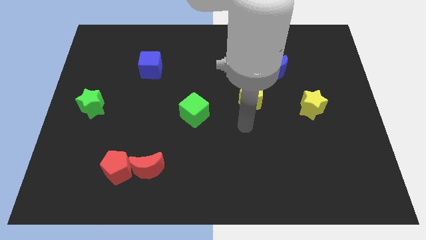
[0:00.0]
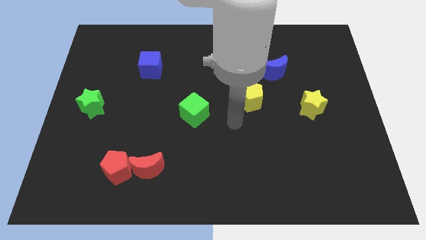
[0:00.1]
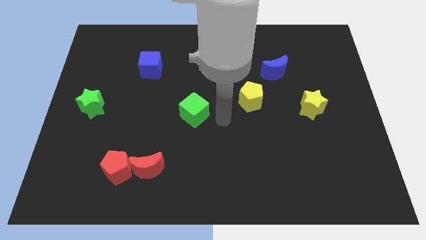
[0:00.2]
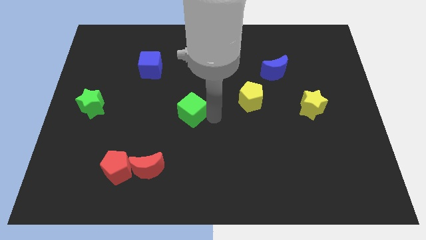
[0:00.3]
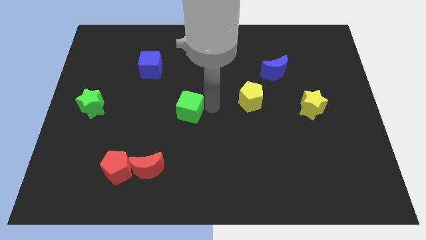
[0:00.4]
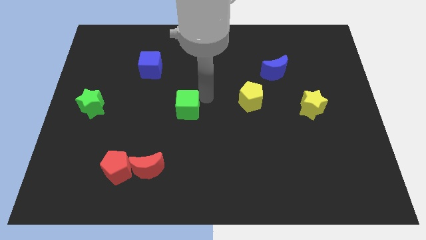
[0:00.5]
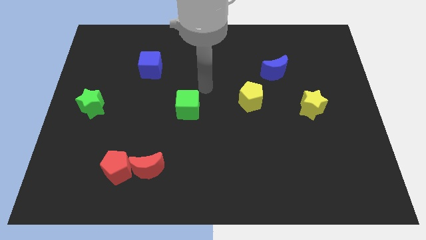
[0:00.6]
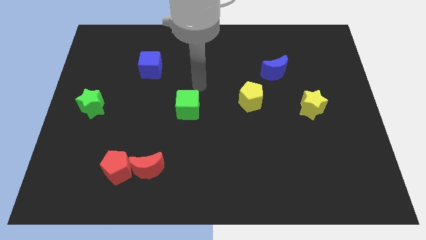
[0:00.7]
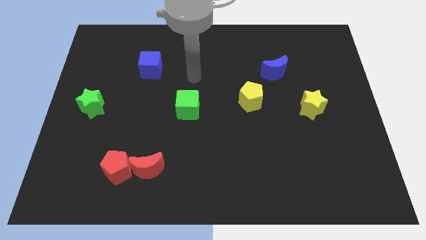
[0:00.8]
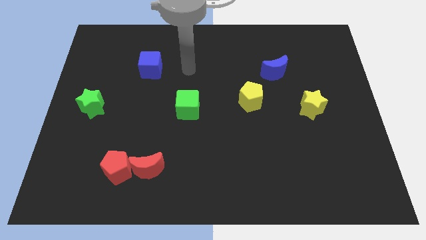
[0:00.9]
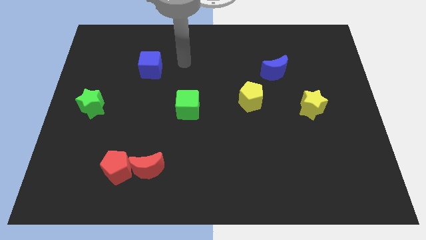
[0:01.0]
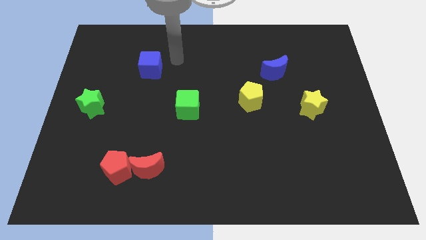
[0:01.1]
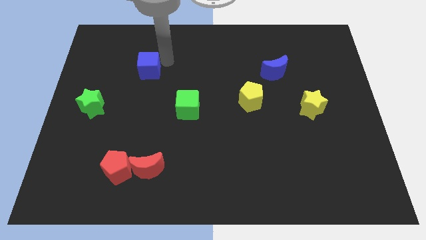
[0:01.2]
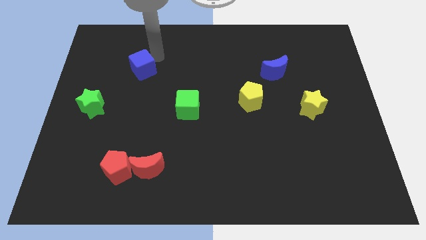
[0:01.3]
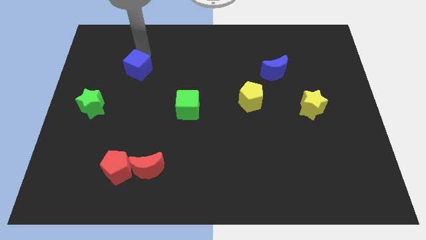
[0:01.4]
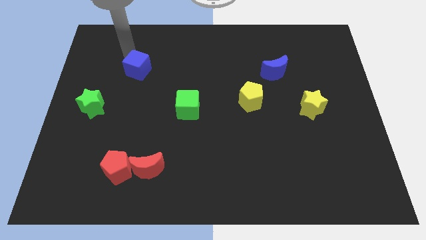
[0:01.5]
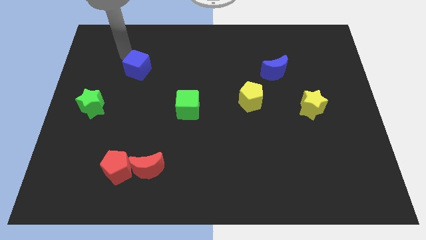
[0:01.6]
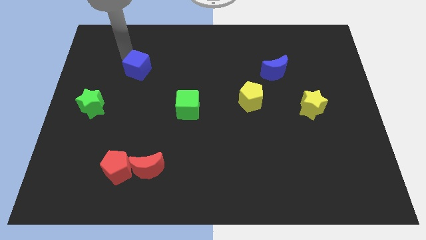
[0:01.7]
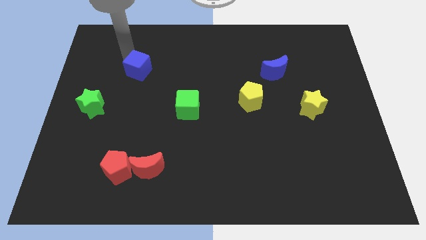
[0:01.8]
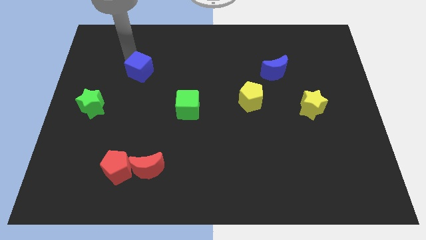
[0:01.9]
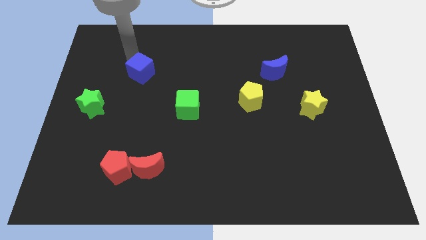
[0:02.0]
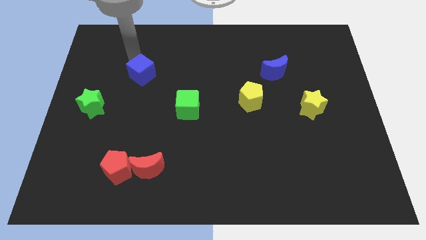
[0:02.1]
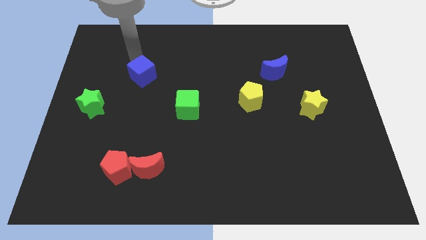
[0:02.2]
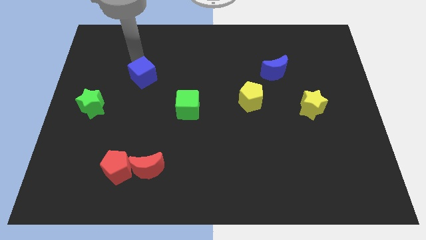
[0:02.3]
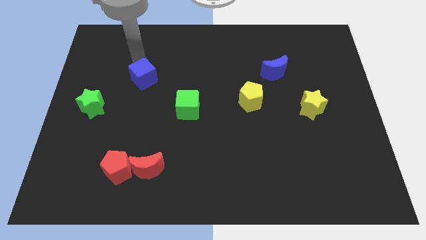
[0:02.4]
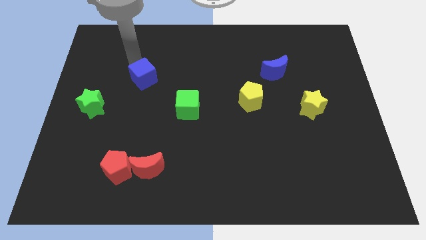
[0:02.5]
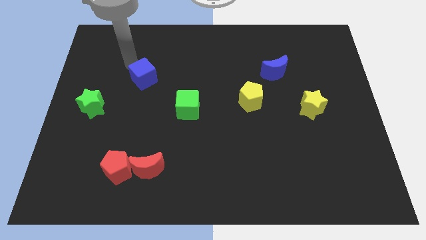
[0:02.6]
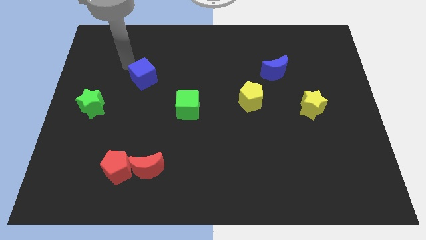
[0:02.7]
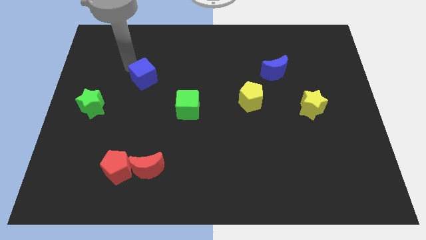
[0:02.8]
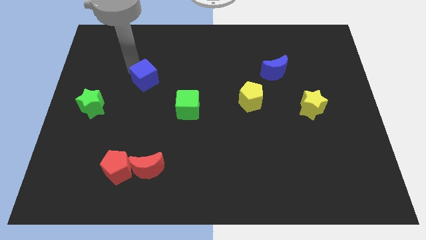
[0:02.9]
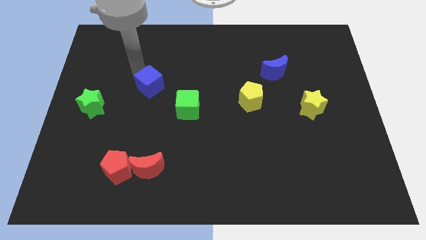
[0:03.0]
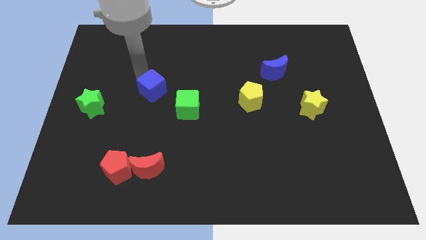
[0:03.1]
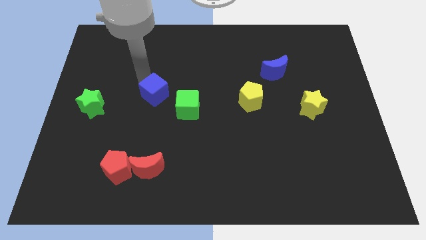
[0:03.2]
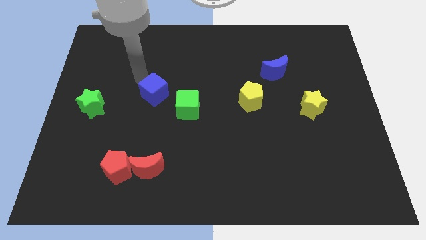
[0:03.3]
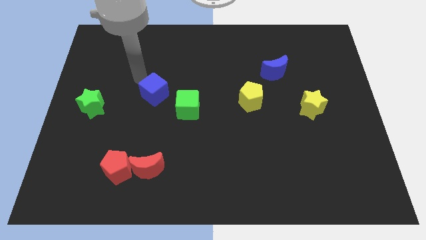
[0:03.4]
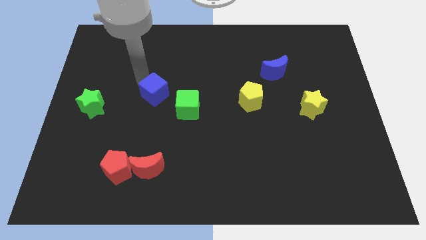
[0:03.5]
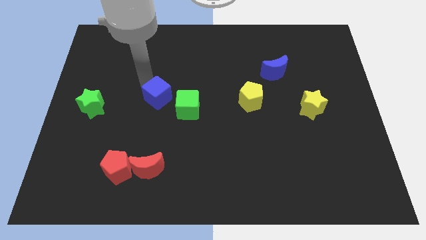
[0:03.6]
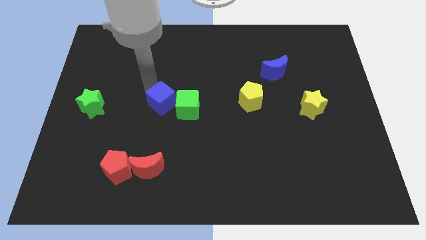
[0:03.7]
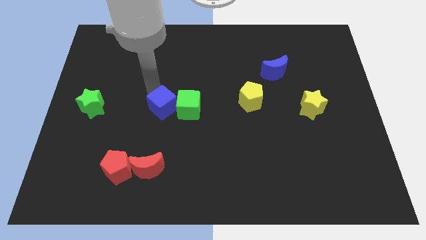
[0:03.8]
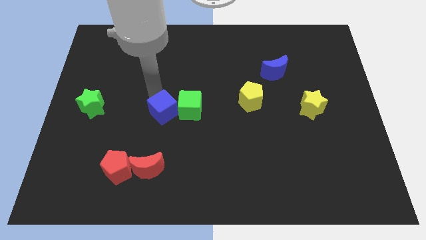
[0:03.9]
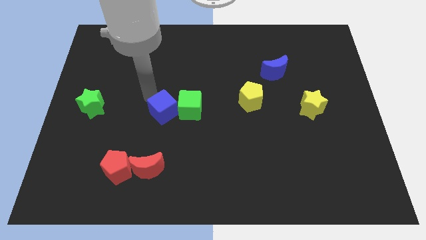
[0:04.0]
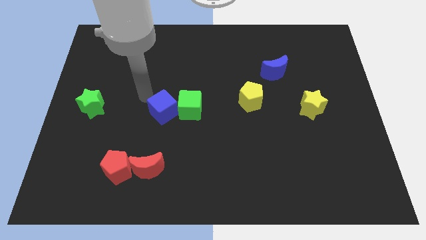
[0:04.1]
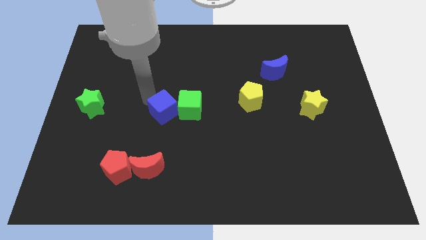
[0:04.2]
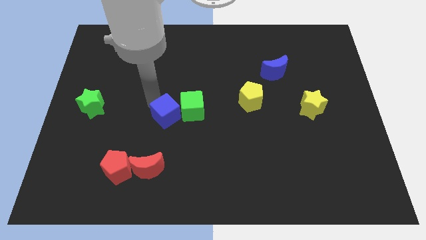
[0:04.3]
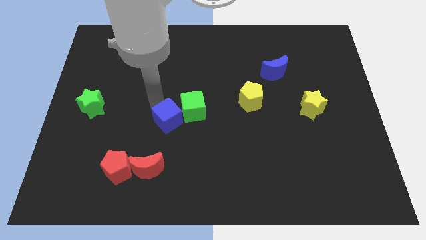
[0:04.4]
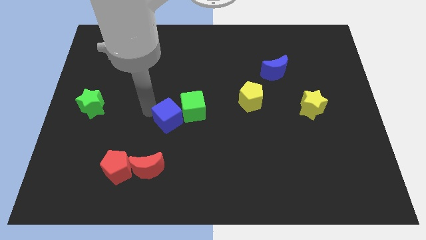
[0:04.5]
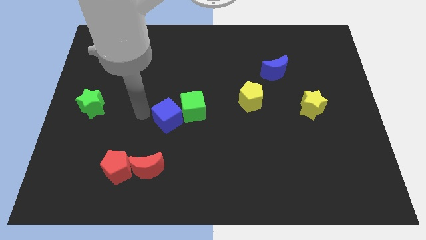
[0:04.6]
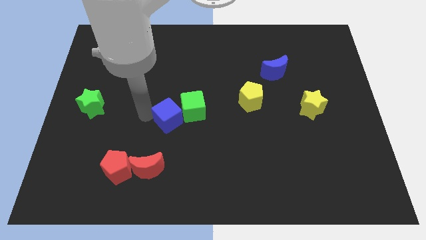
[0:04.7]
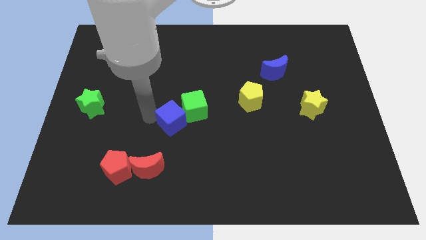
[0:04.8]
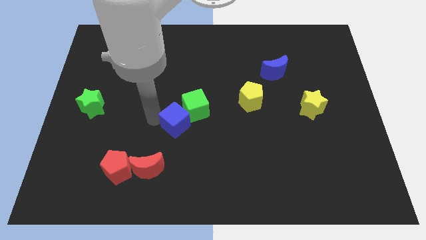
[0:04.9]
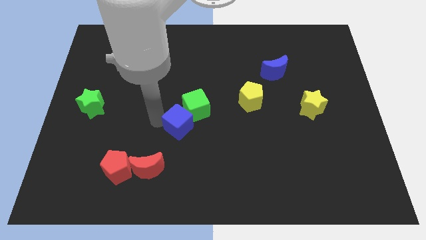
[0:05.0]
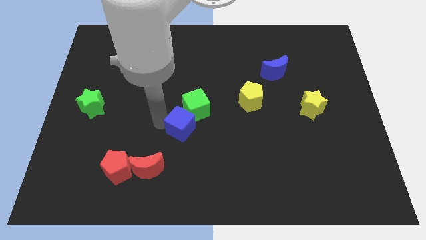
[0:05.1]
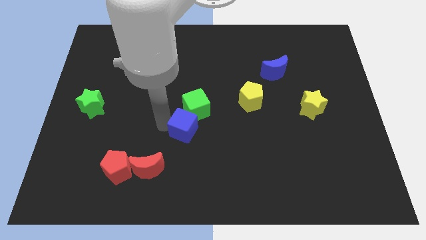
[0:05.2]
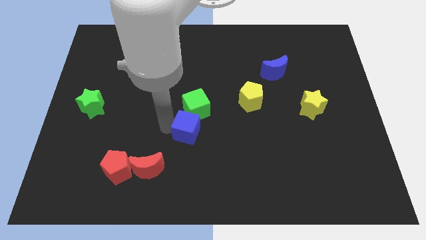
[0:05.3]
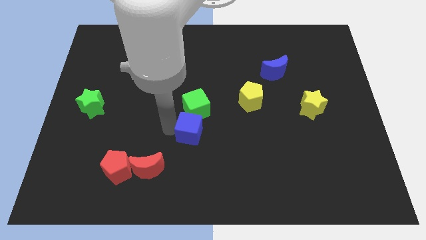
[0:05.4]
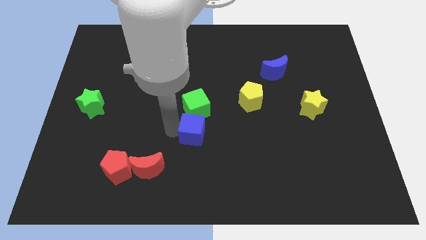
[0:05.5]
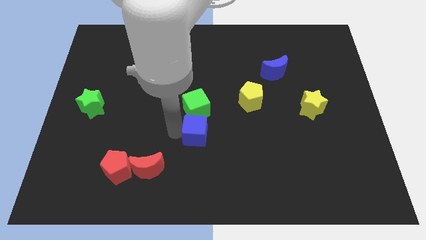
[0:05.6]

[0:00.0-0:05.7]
slide the blue cube to the bottom right side of the green cube

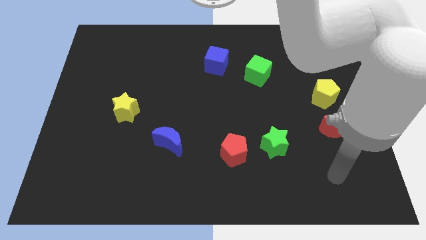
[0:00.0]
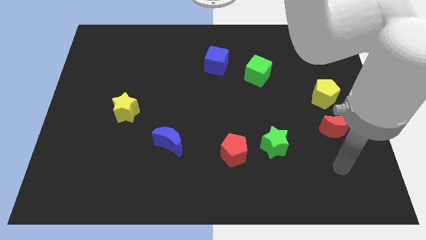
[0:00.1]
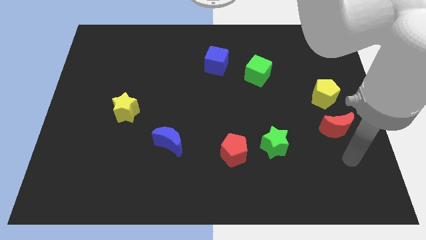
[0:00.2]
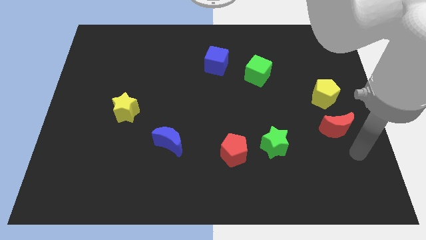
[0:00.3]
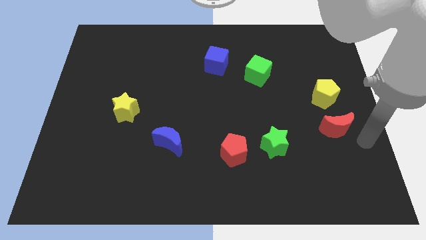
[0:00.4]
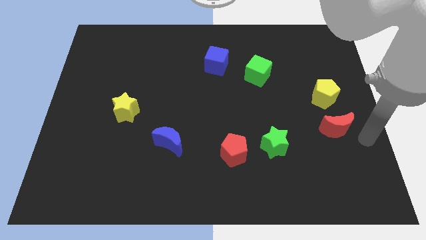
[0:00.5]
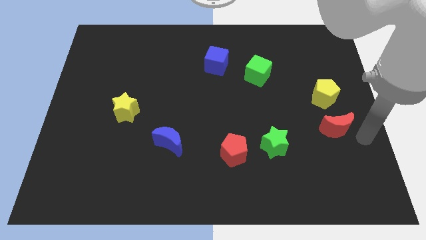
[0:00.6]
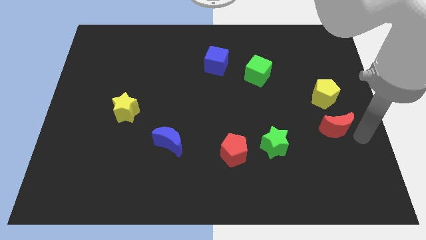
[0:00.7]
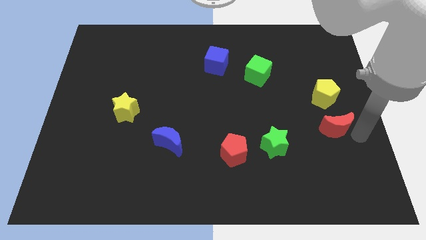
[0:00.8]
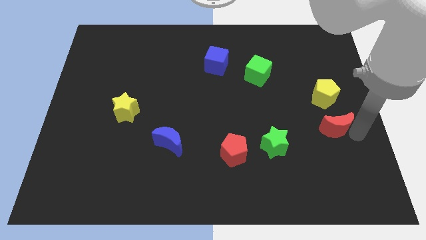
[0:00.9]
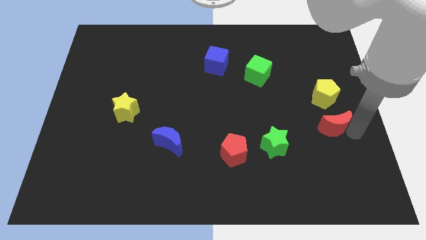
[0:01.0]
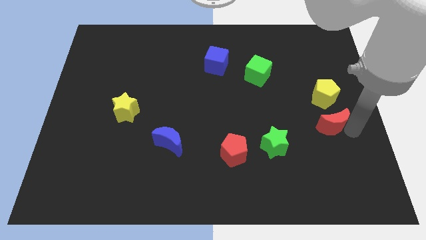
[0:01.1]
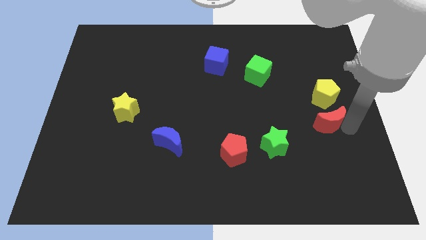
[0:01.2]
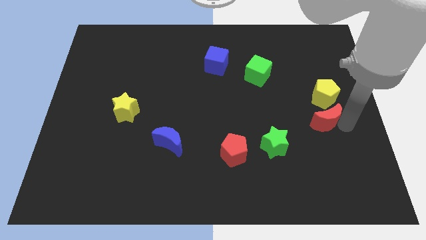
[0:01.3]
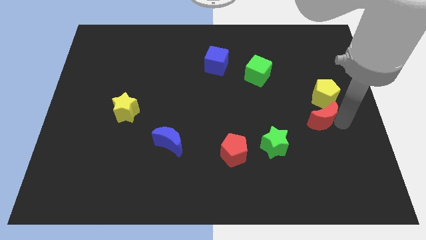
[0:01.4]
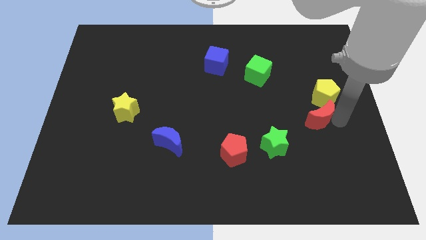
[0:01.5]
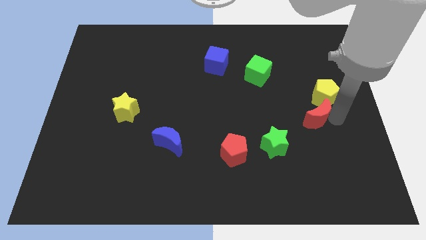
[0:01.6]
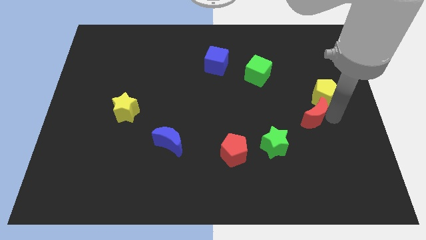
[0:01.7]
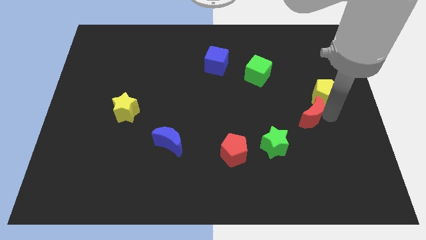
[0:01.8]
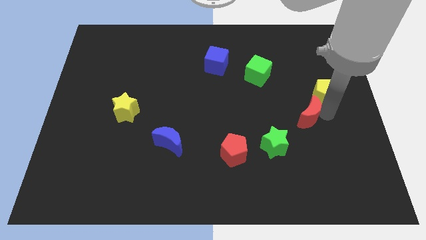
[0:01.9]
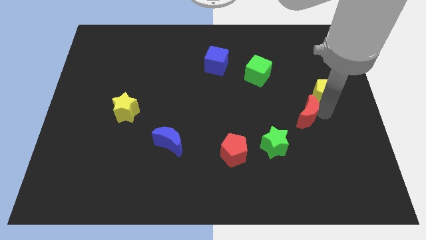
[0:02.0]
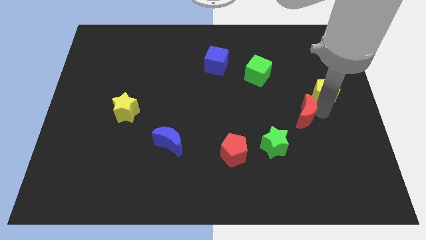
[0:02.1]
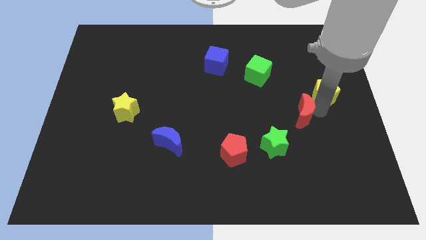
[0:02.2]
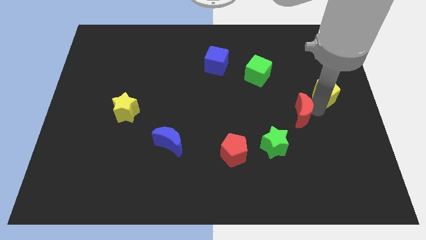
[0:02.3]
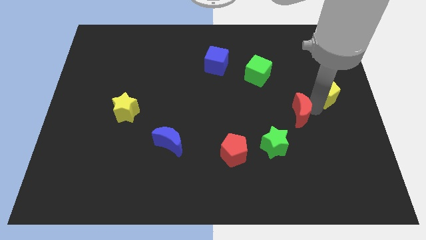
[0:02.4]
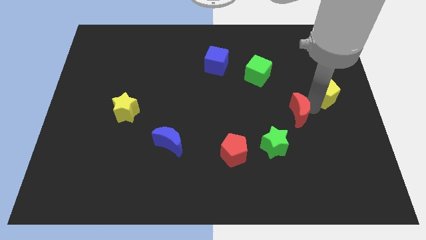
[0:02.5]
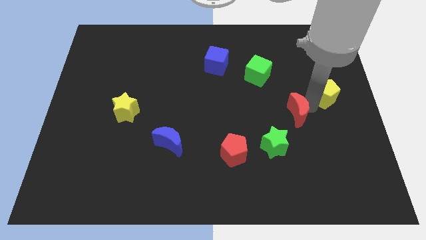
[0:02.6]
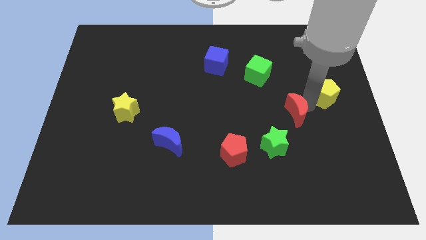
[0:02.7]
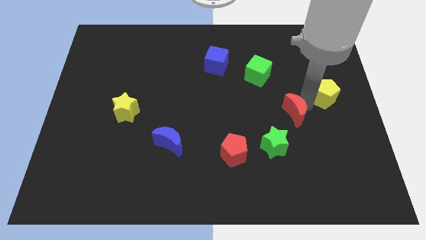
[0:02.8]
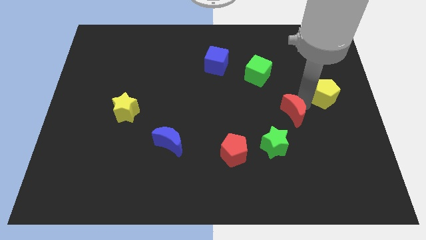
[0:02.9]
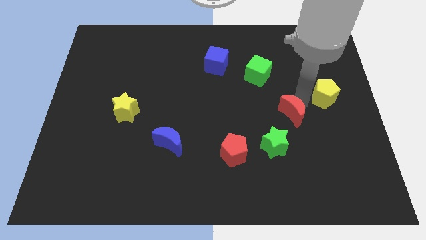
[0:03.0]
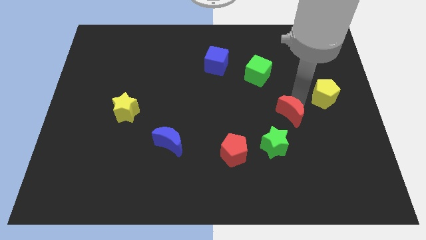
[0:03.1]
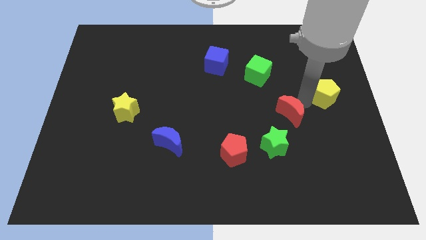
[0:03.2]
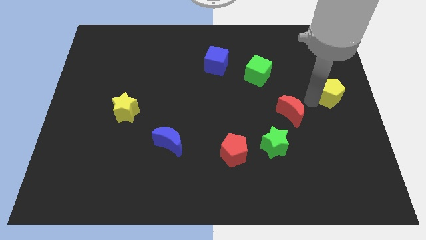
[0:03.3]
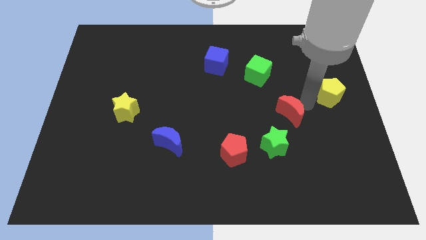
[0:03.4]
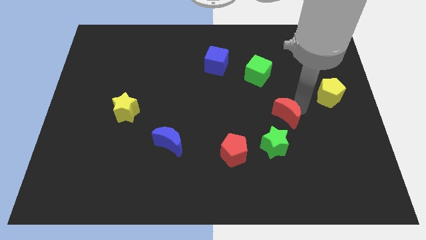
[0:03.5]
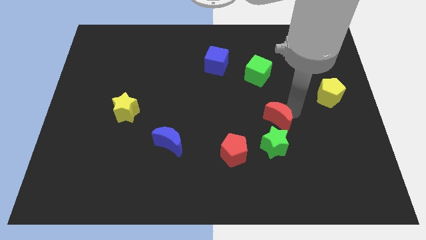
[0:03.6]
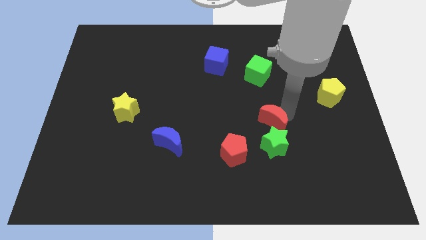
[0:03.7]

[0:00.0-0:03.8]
push the red moon to the top right side of the red pentagon
